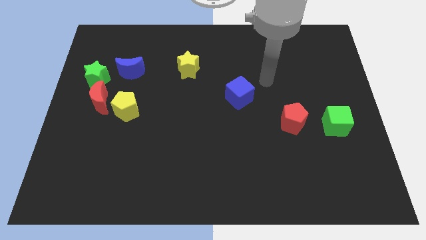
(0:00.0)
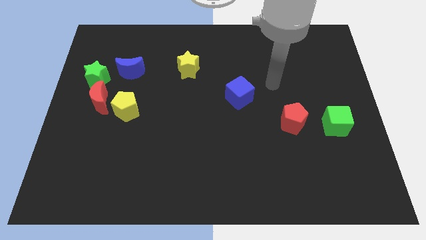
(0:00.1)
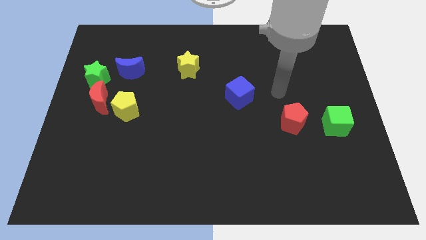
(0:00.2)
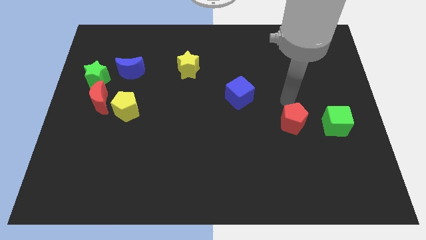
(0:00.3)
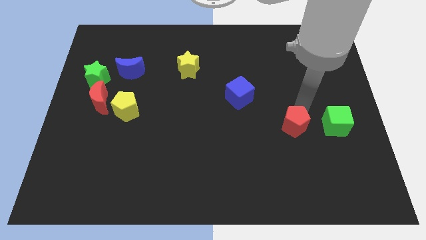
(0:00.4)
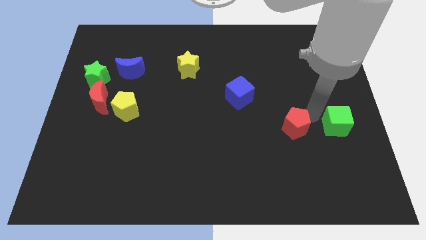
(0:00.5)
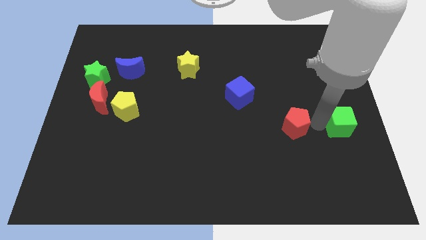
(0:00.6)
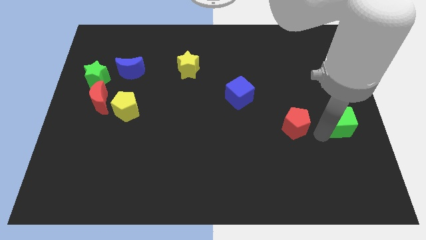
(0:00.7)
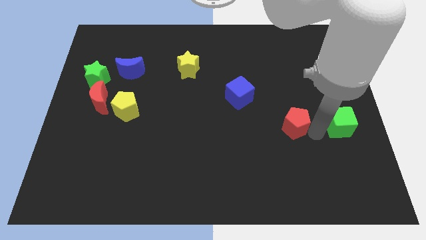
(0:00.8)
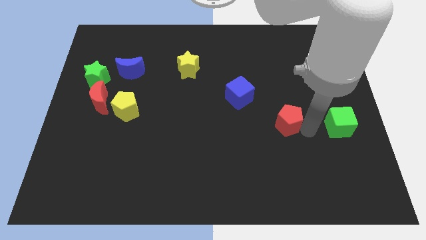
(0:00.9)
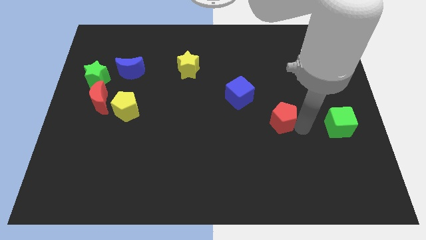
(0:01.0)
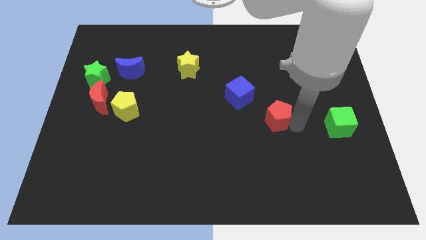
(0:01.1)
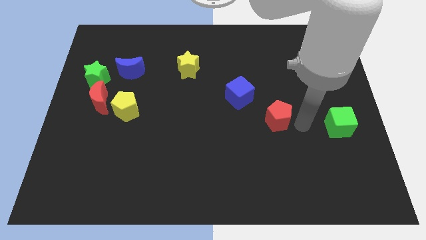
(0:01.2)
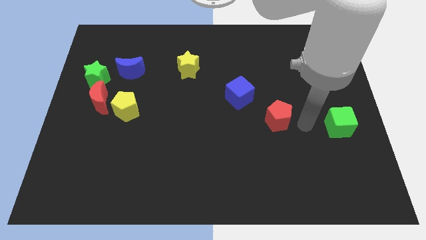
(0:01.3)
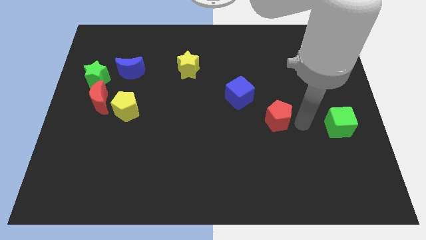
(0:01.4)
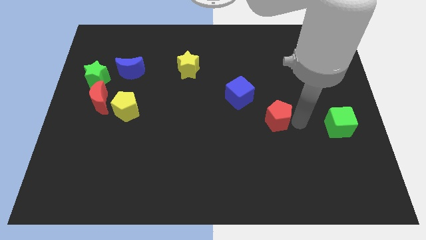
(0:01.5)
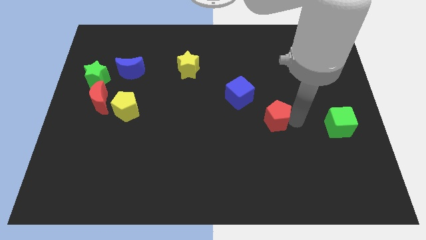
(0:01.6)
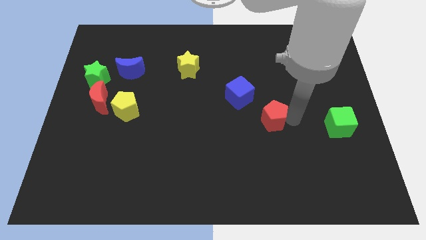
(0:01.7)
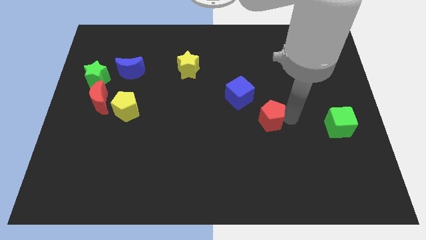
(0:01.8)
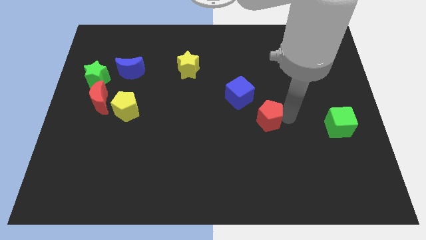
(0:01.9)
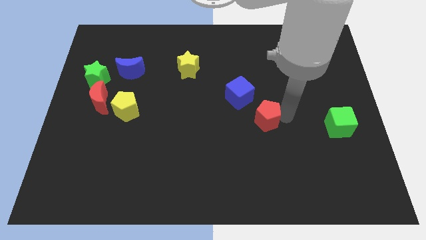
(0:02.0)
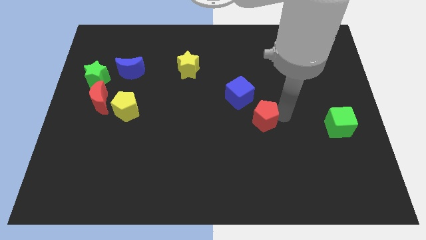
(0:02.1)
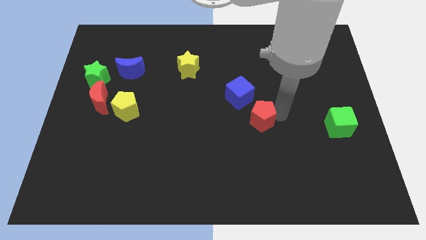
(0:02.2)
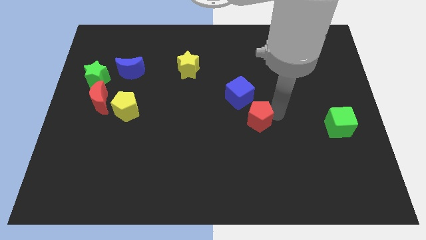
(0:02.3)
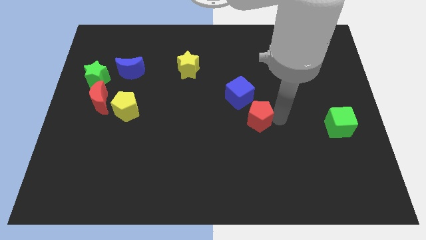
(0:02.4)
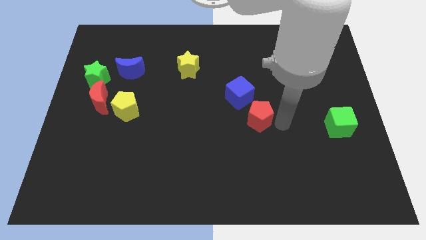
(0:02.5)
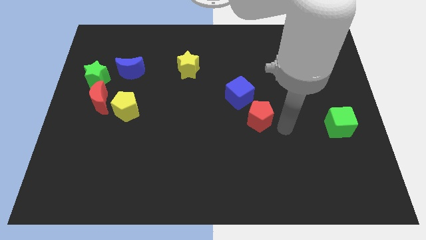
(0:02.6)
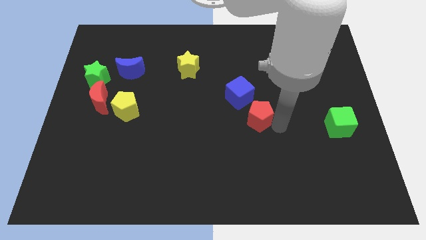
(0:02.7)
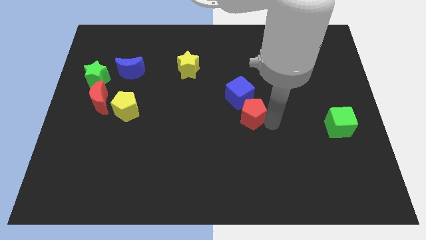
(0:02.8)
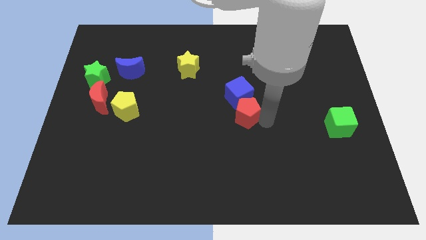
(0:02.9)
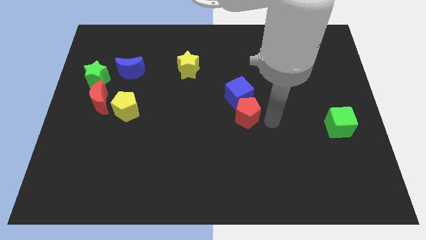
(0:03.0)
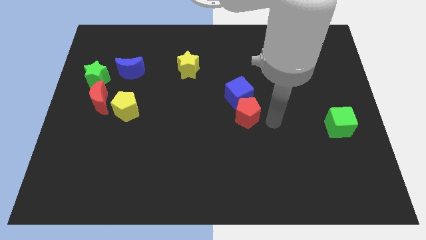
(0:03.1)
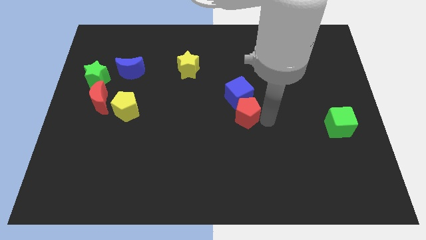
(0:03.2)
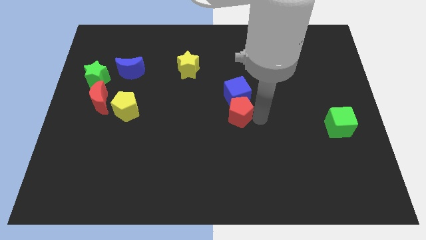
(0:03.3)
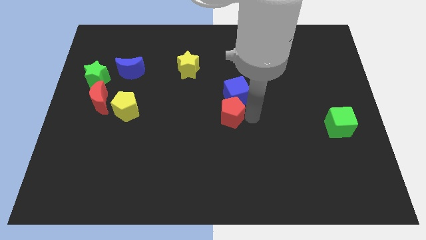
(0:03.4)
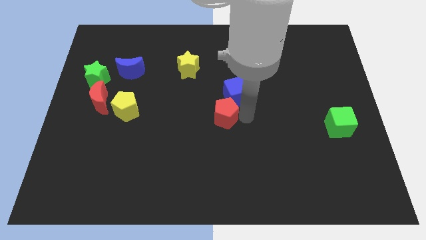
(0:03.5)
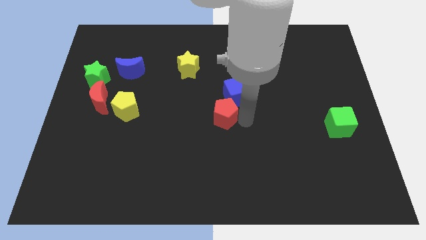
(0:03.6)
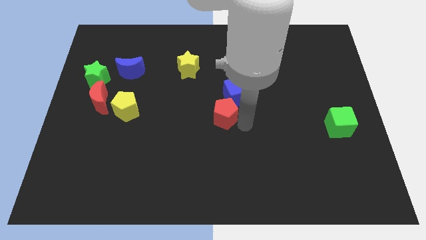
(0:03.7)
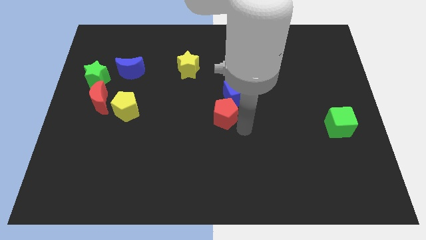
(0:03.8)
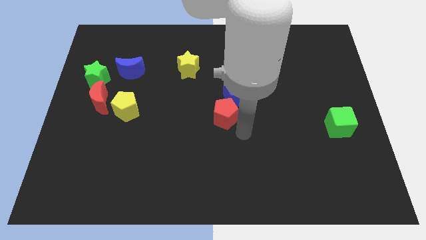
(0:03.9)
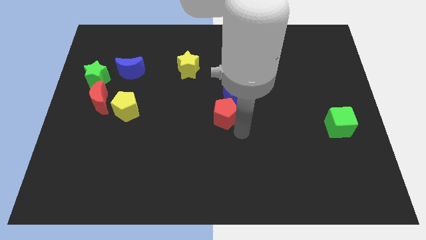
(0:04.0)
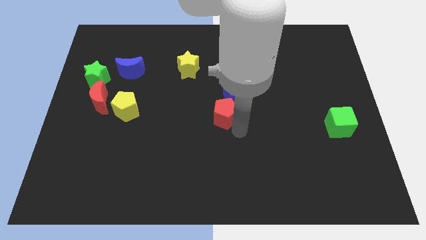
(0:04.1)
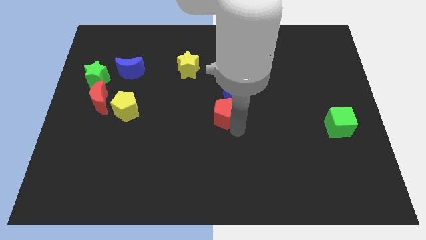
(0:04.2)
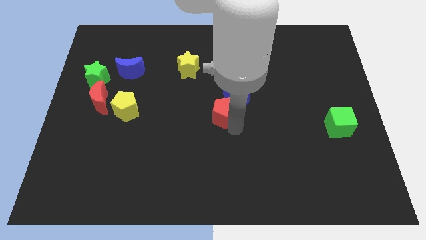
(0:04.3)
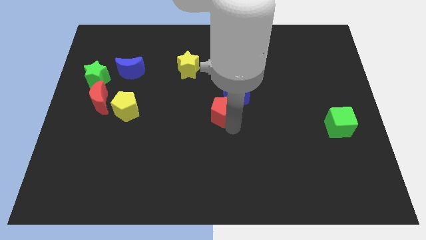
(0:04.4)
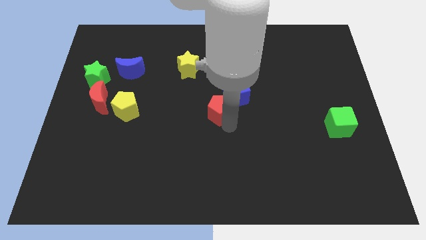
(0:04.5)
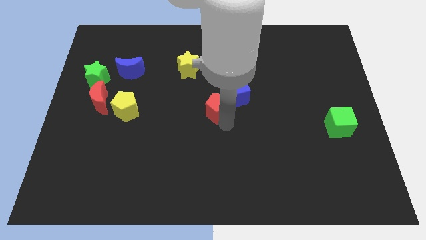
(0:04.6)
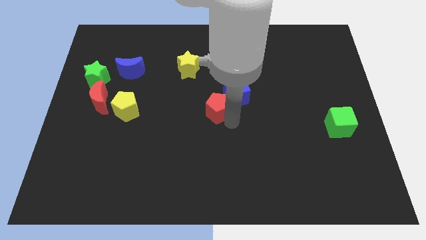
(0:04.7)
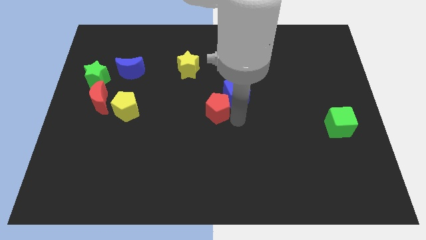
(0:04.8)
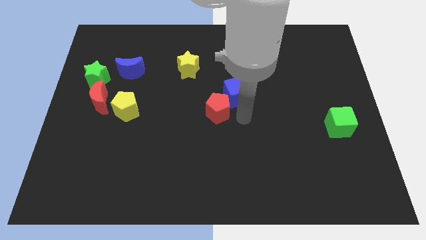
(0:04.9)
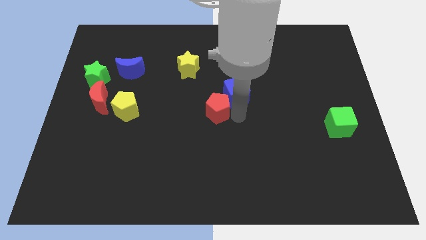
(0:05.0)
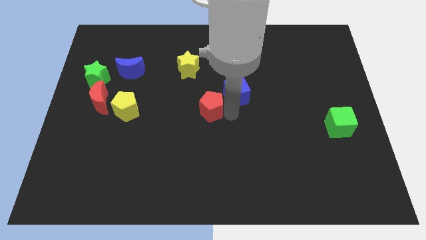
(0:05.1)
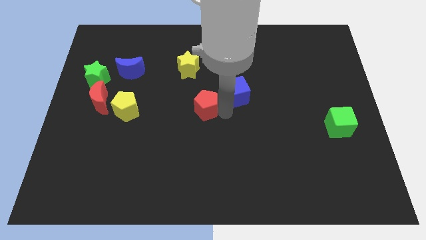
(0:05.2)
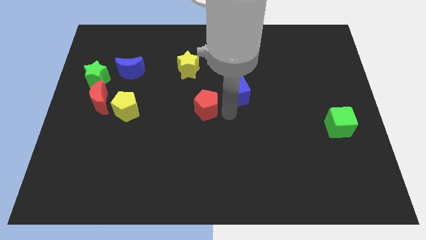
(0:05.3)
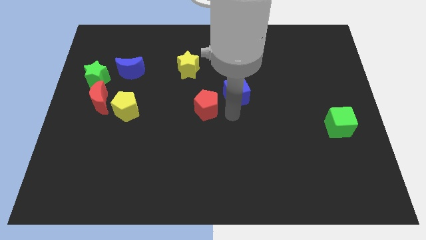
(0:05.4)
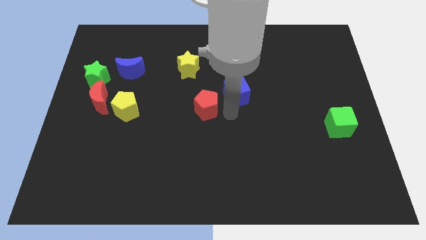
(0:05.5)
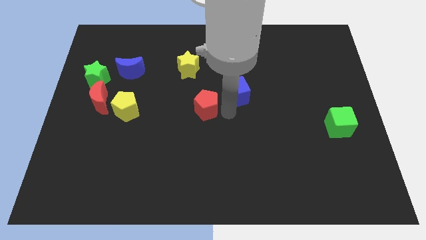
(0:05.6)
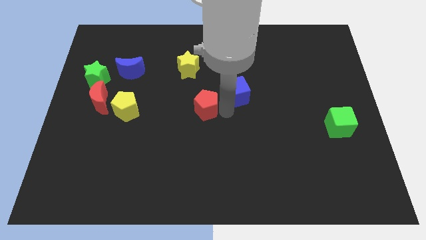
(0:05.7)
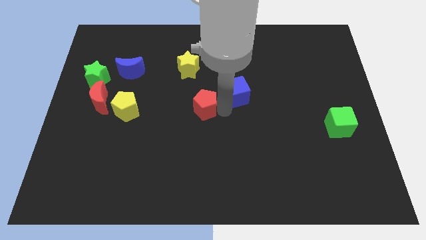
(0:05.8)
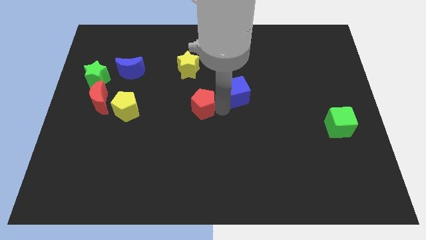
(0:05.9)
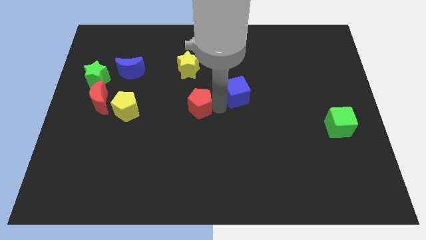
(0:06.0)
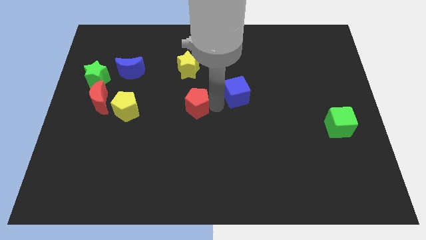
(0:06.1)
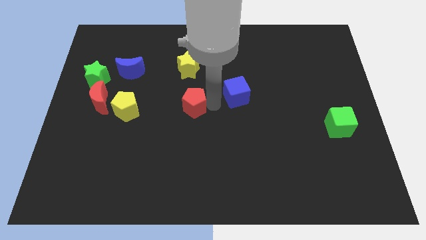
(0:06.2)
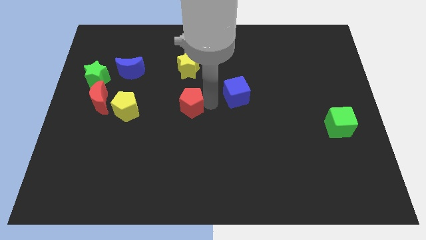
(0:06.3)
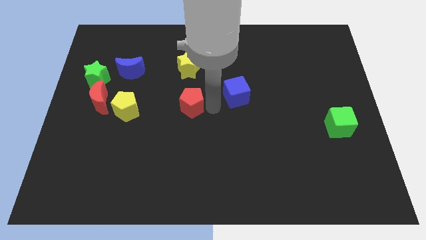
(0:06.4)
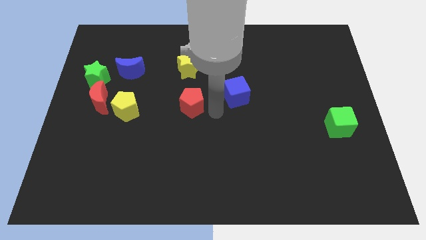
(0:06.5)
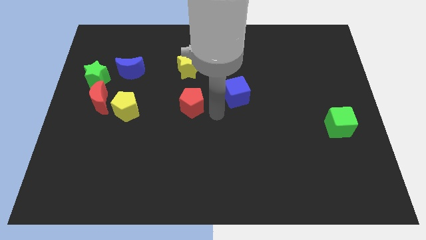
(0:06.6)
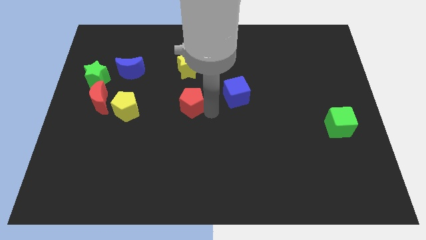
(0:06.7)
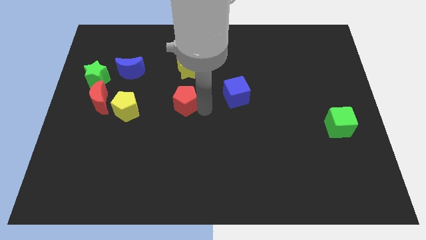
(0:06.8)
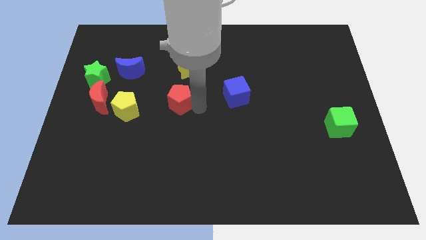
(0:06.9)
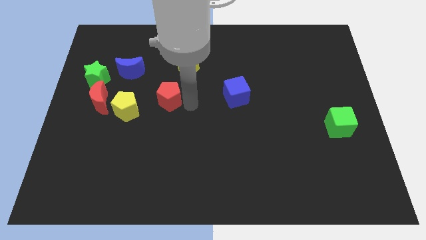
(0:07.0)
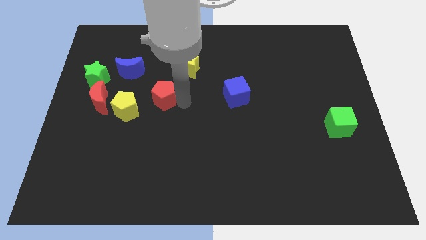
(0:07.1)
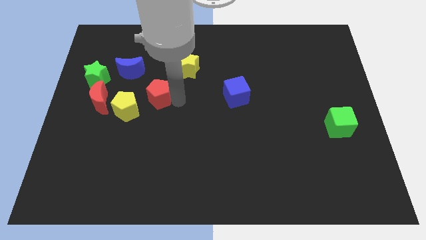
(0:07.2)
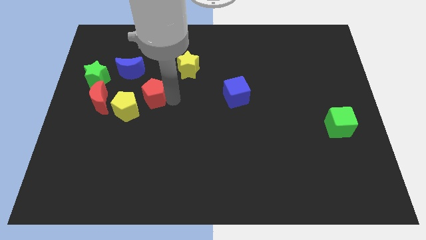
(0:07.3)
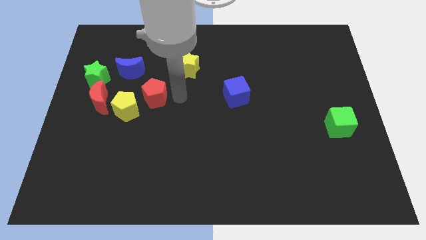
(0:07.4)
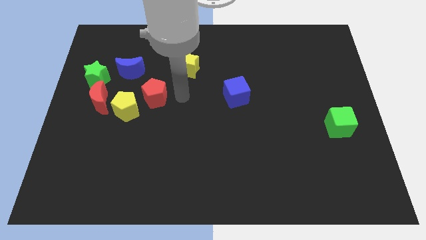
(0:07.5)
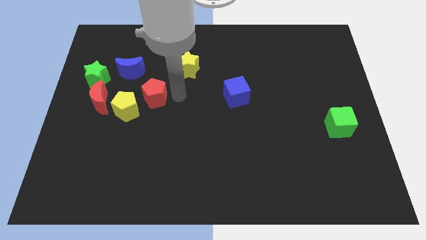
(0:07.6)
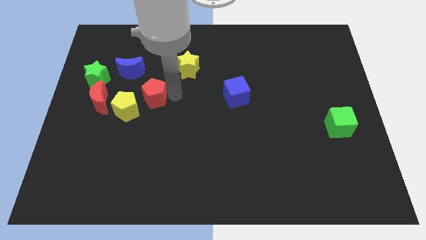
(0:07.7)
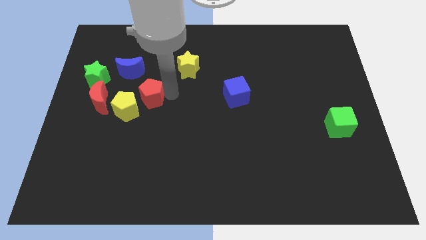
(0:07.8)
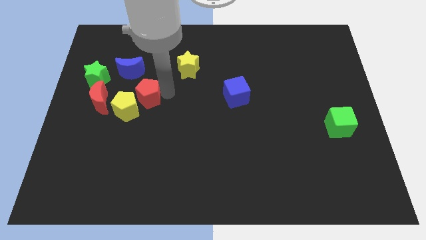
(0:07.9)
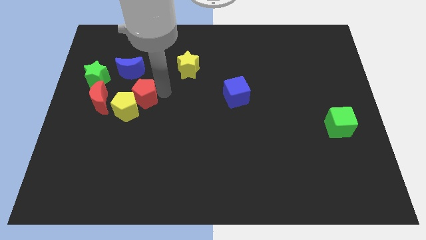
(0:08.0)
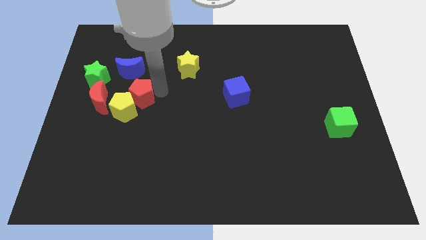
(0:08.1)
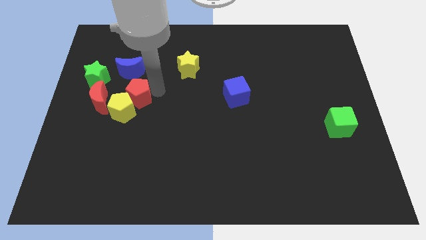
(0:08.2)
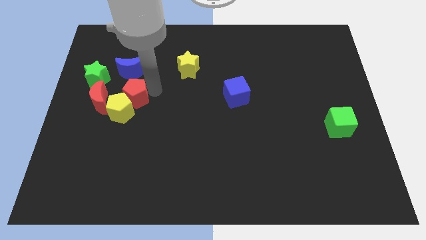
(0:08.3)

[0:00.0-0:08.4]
put the red pentagon diagonally down and to the right of the green star
